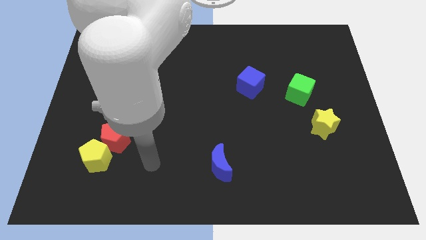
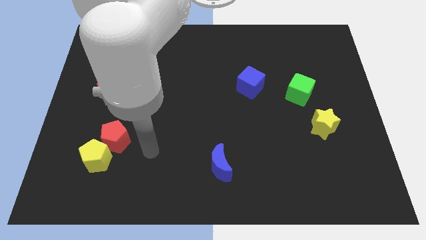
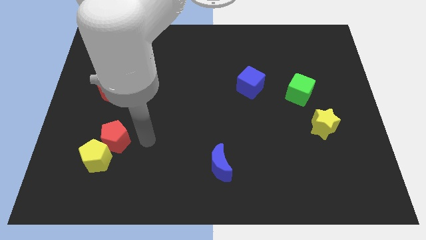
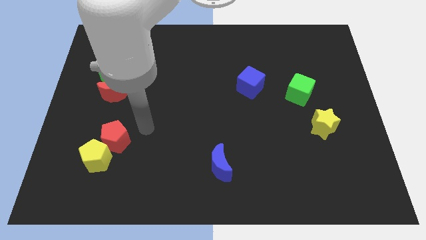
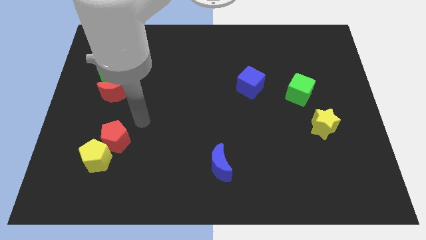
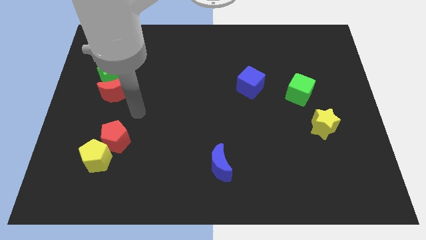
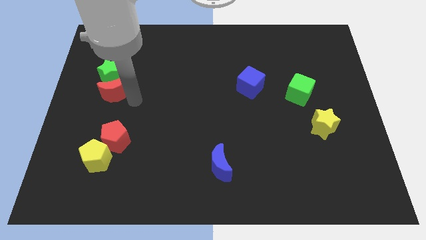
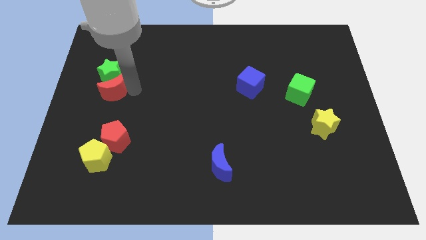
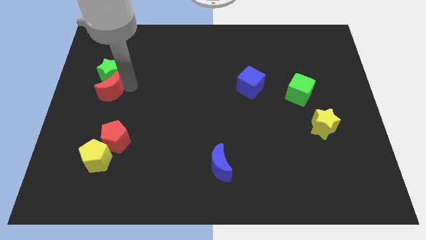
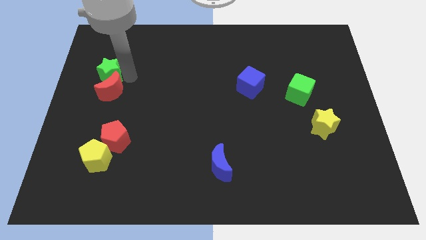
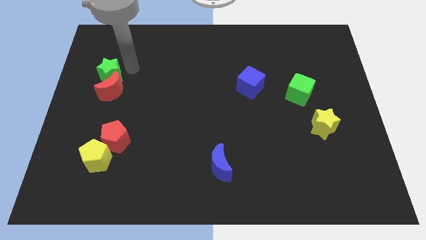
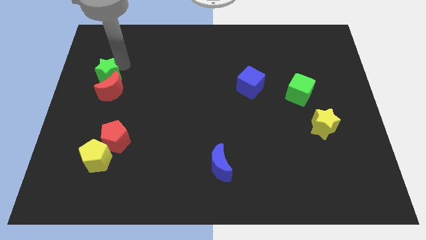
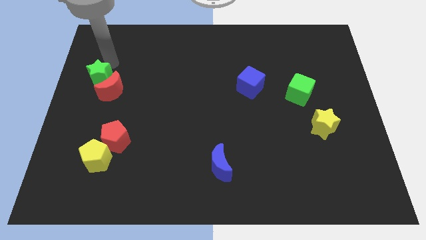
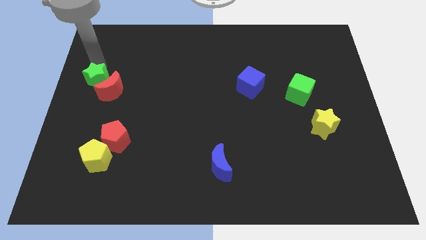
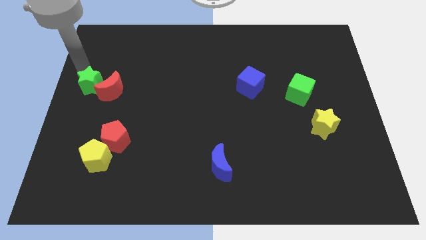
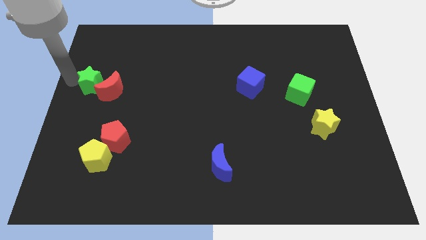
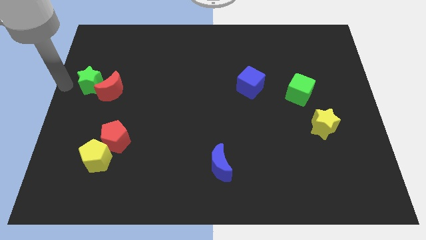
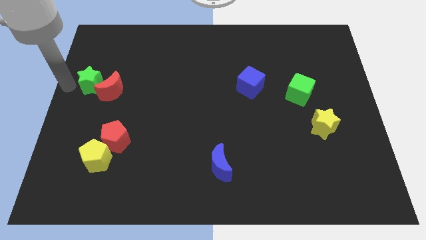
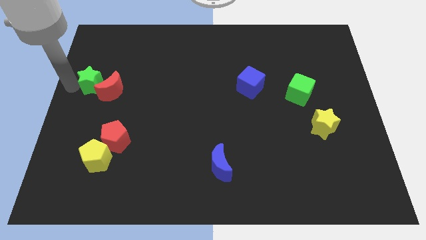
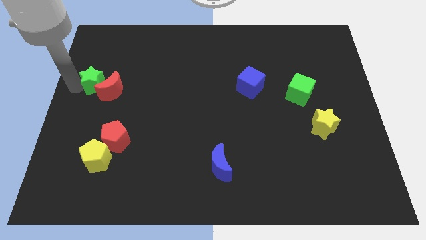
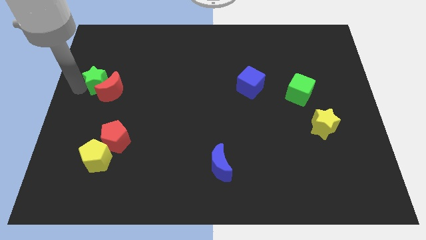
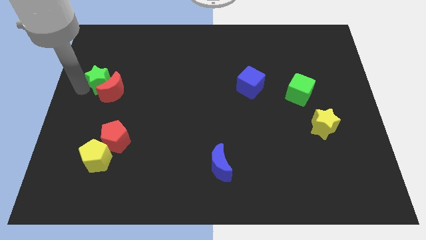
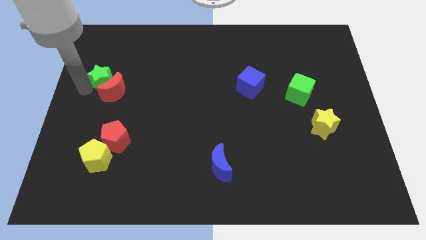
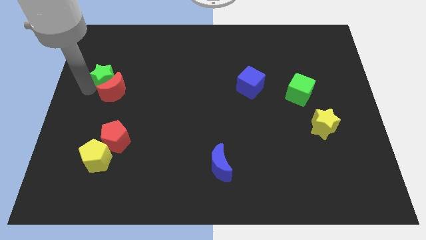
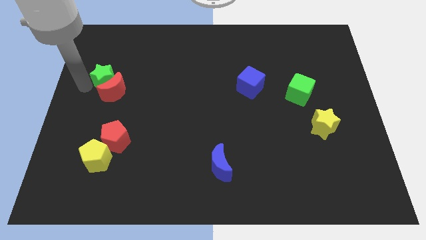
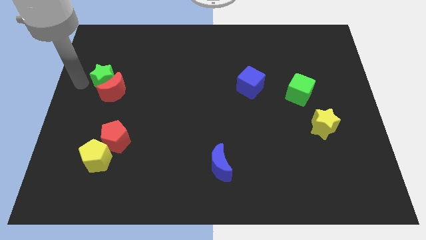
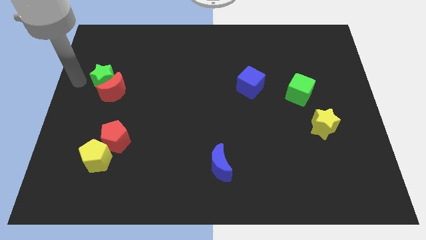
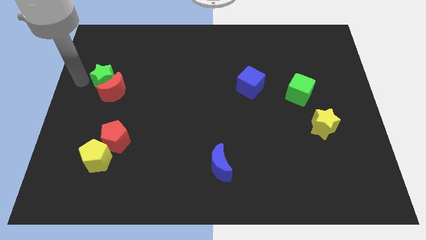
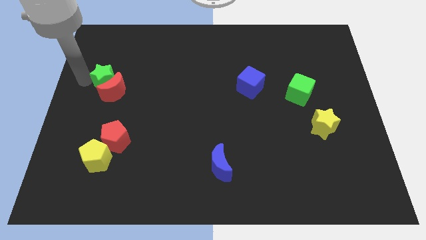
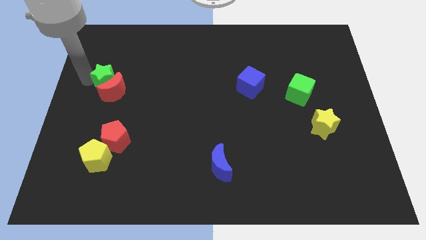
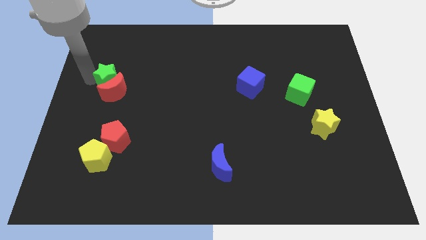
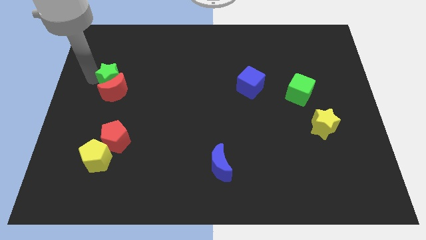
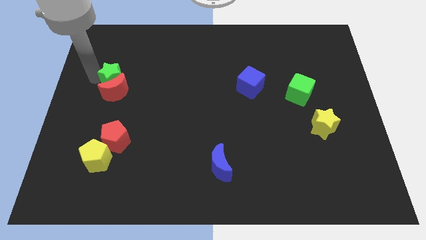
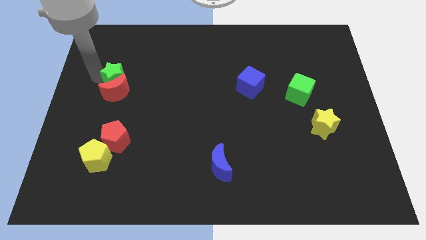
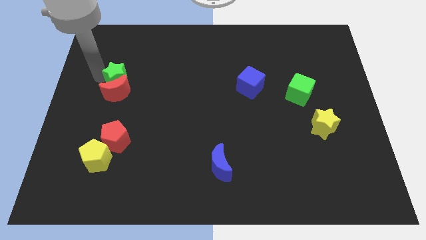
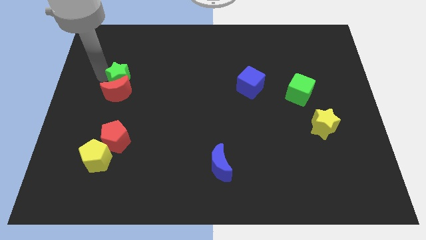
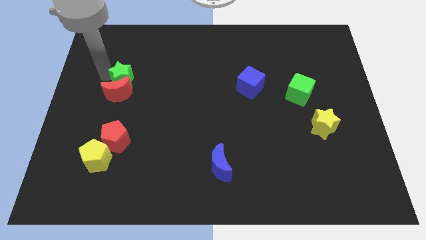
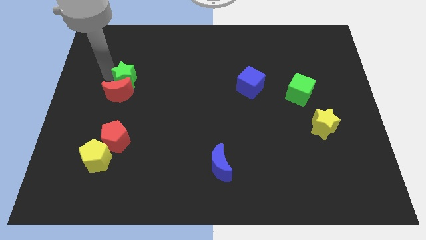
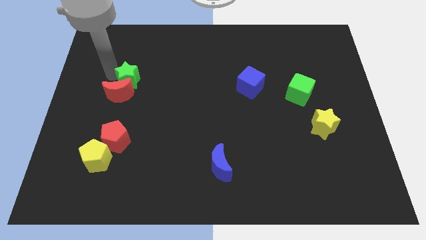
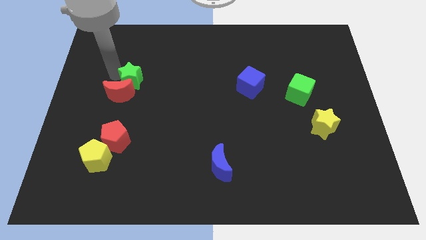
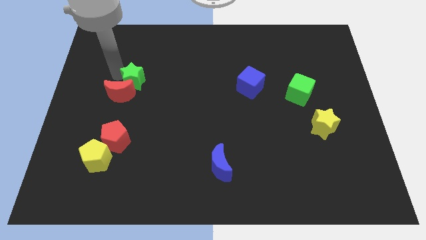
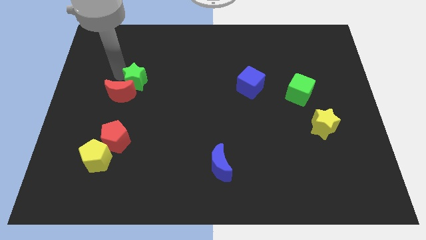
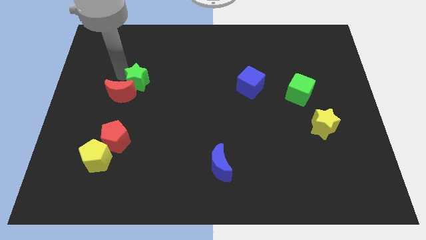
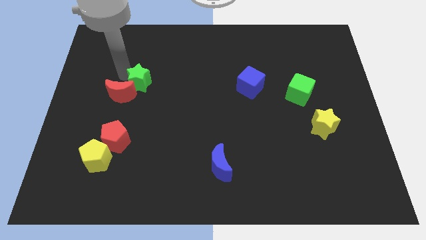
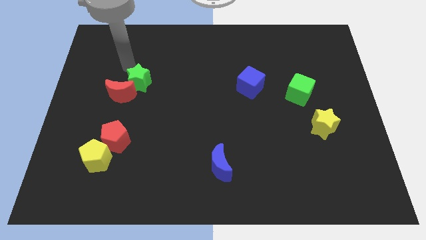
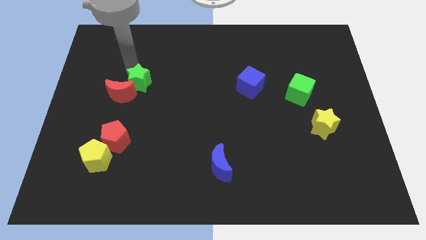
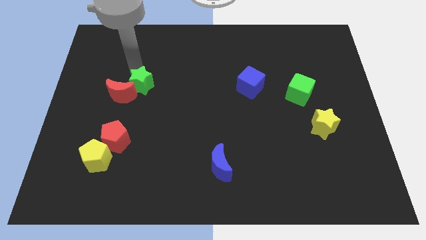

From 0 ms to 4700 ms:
move the green star diagonally downwards and right a little

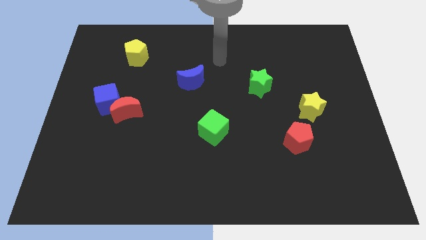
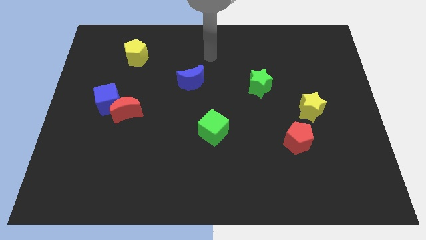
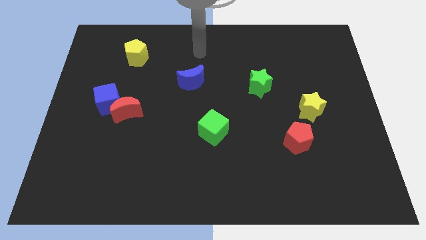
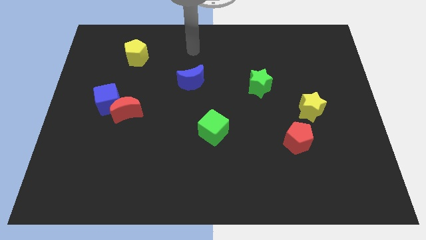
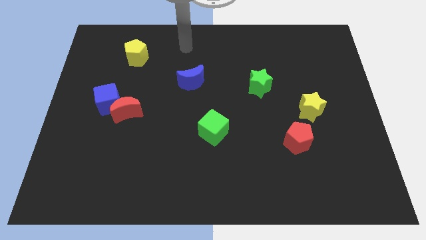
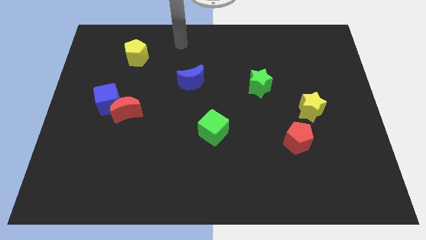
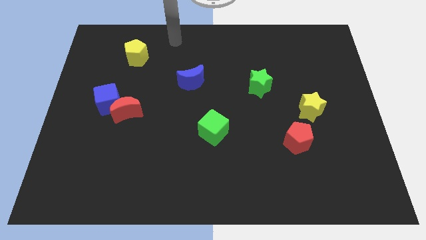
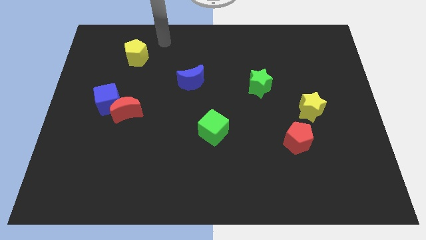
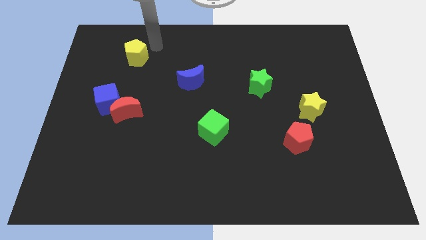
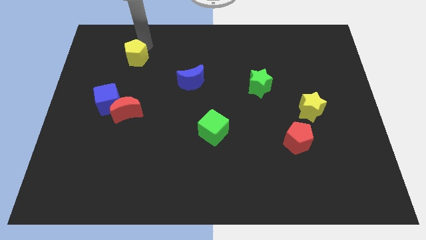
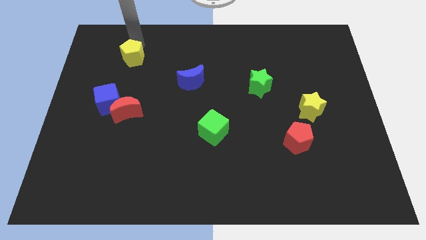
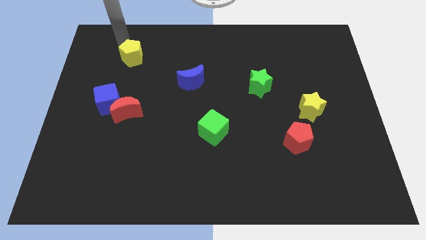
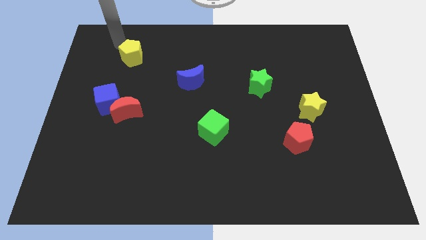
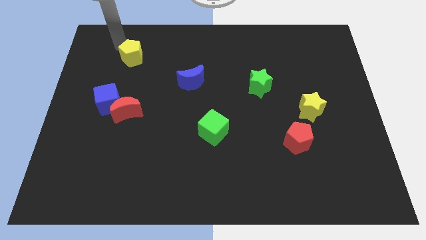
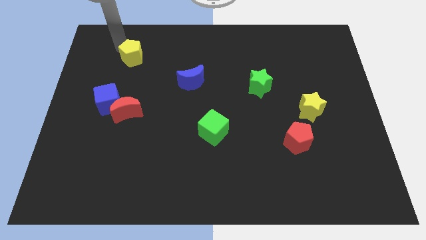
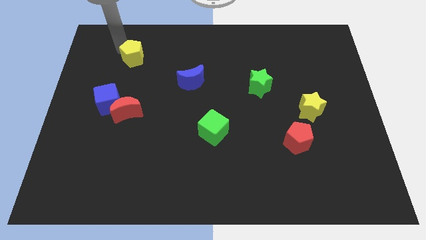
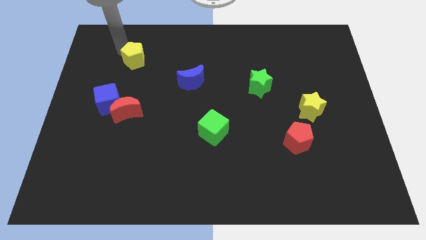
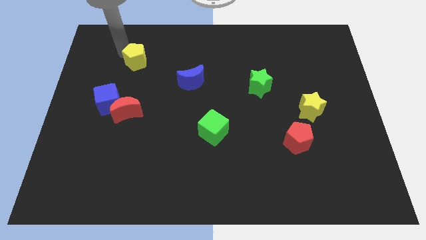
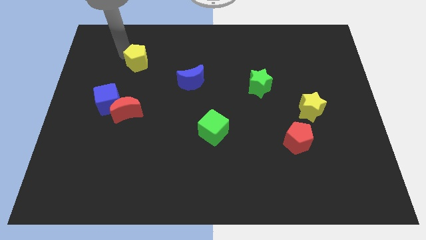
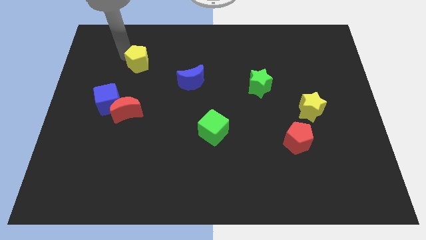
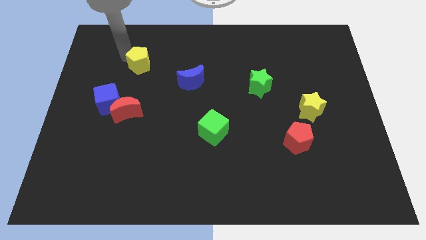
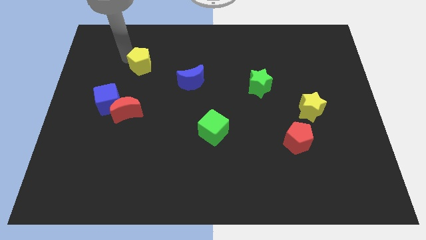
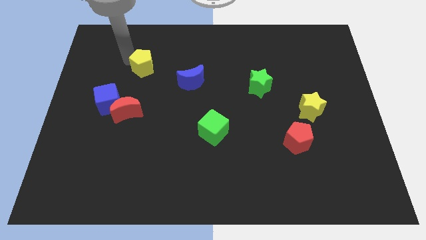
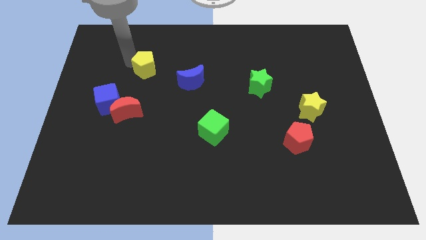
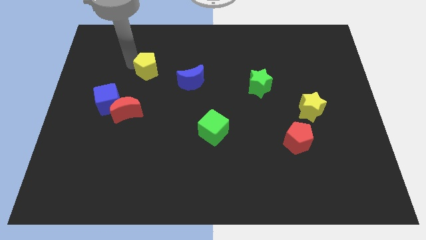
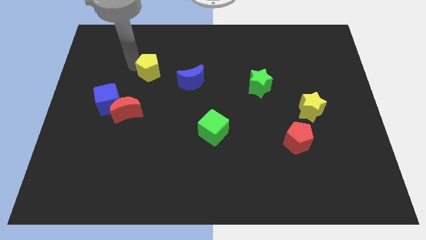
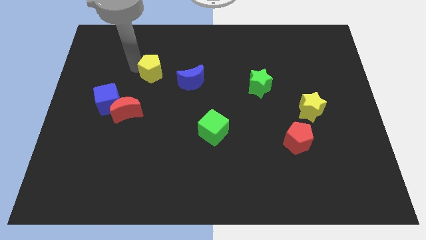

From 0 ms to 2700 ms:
push the yellow pentagon diagonally downwards and right a little

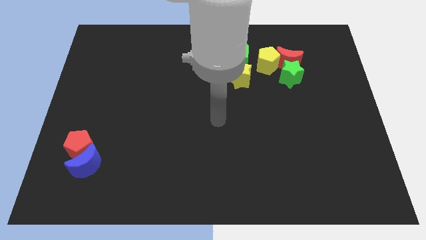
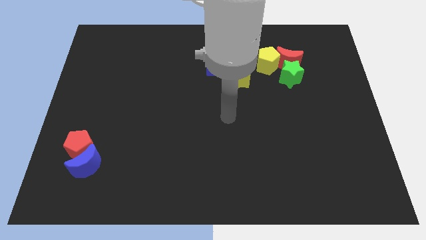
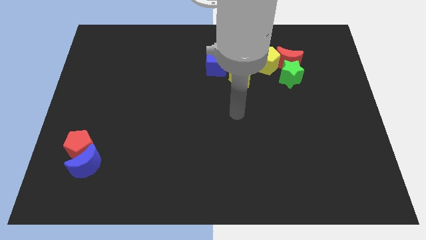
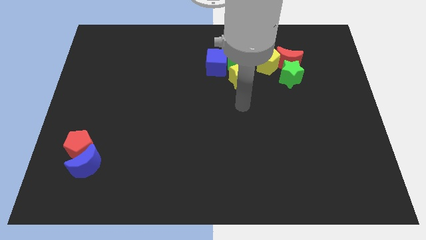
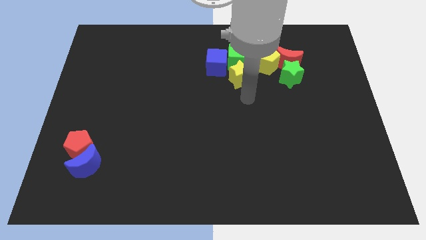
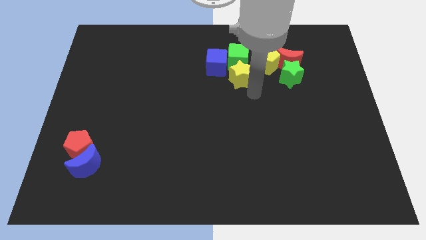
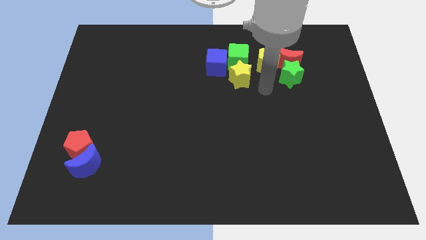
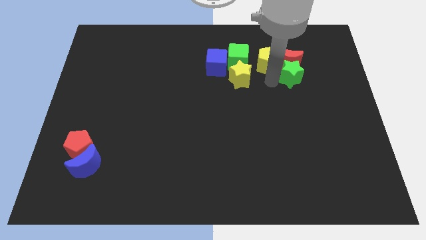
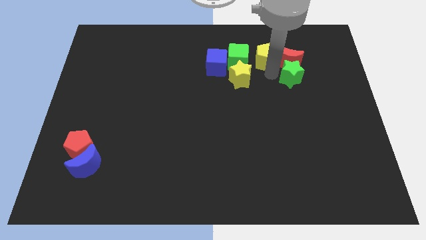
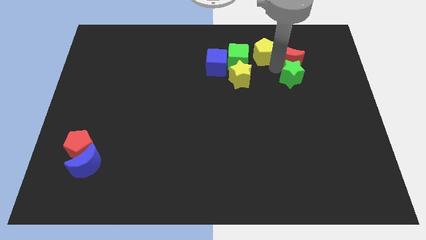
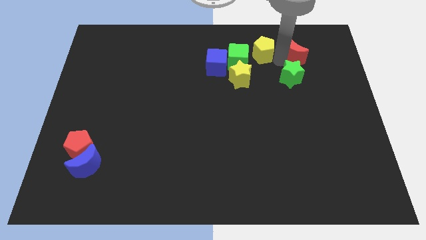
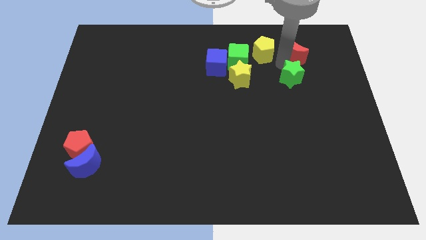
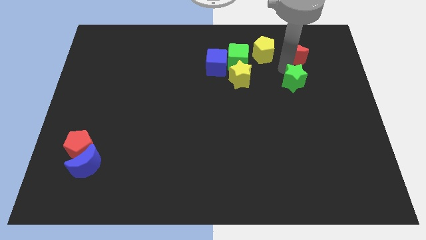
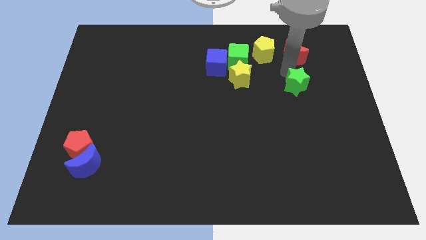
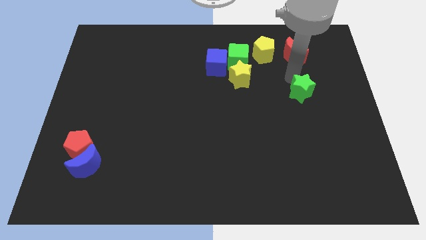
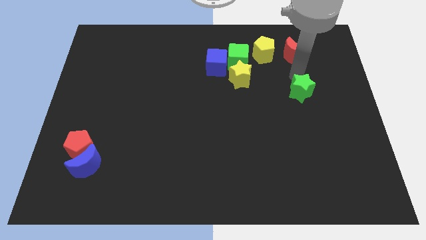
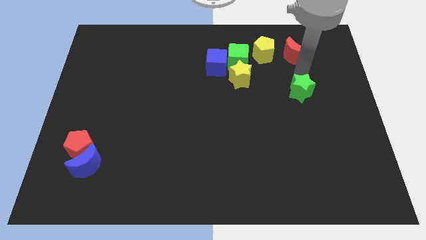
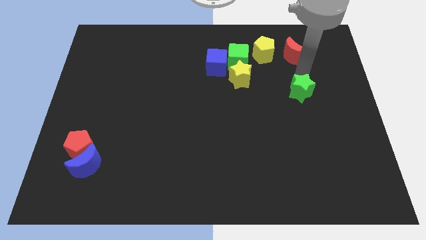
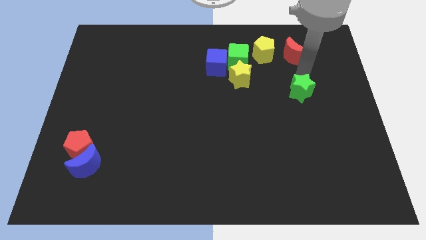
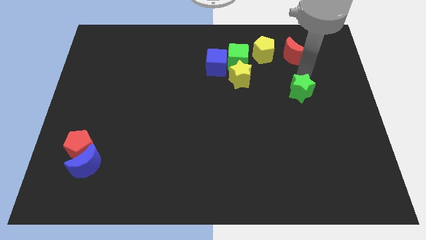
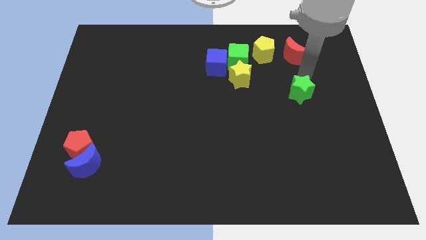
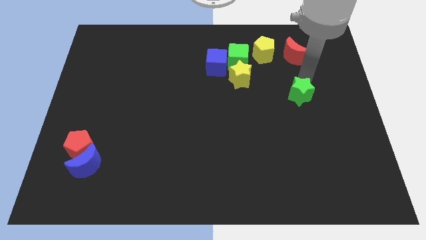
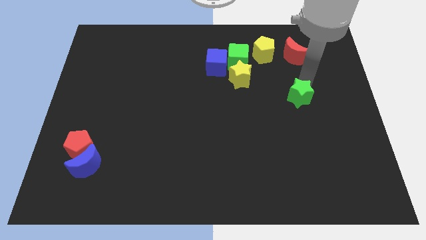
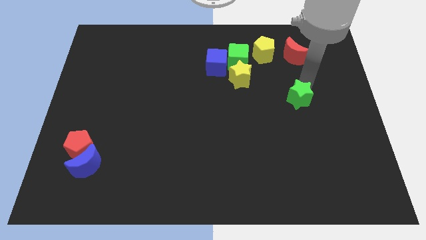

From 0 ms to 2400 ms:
push the green star a little downwards
